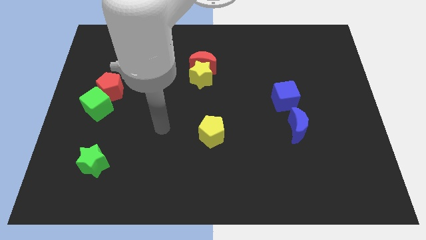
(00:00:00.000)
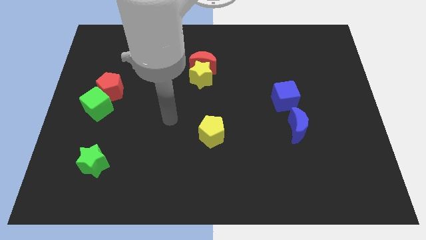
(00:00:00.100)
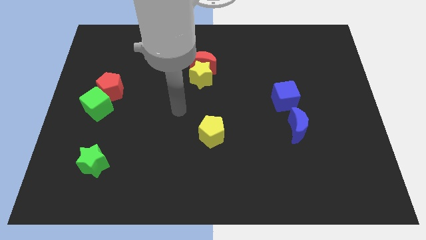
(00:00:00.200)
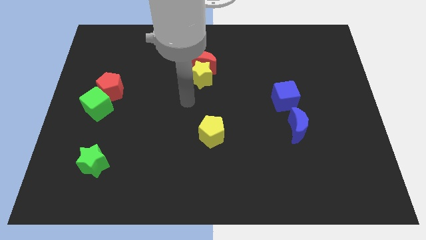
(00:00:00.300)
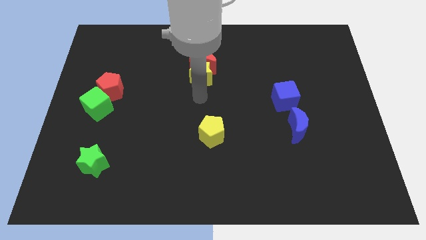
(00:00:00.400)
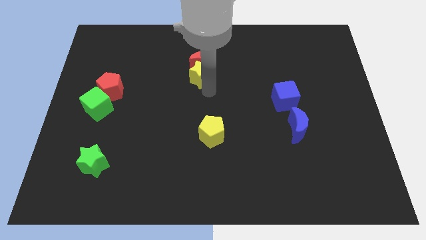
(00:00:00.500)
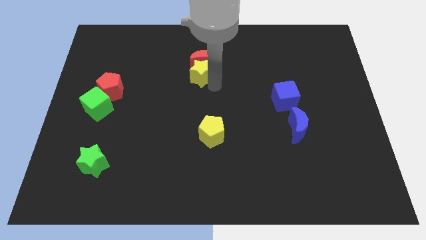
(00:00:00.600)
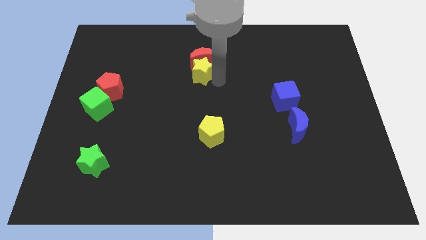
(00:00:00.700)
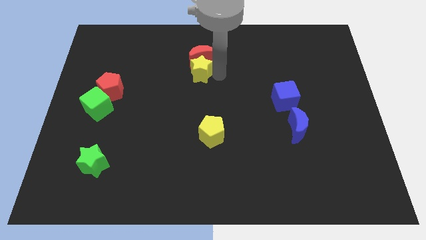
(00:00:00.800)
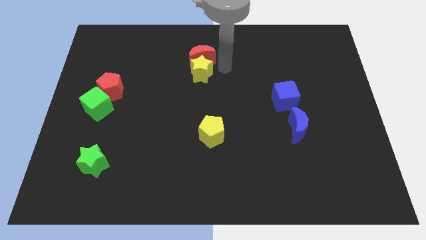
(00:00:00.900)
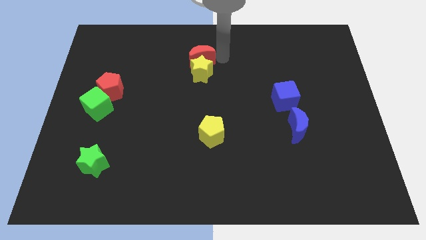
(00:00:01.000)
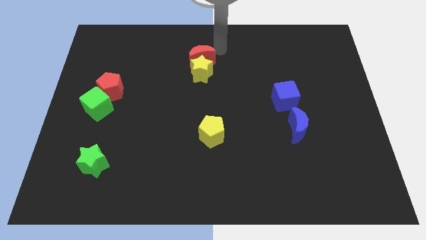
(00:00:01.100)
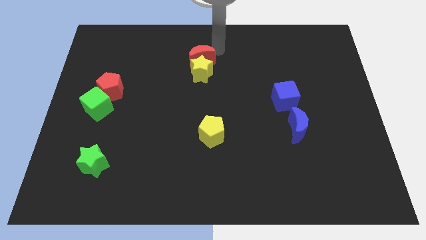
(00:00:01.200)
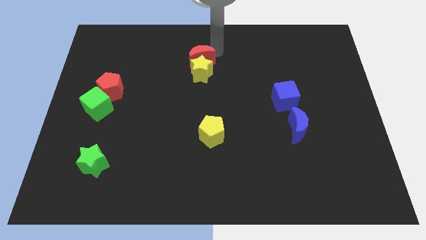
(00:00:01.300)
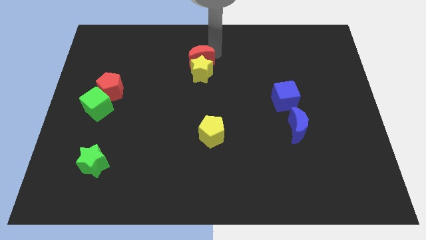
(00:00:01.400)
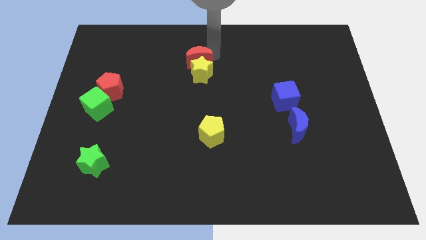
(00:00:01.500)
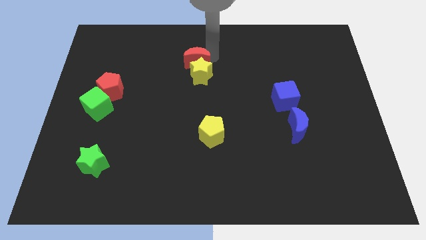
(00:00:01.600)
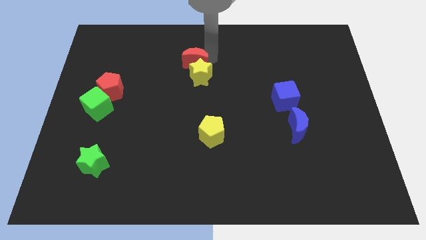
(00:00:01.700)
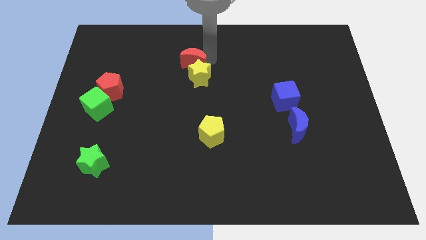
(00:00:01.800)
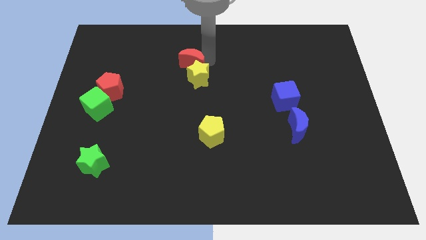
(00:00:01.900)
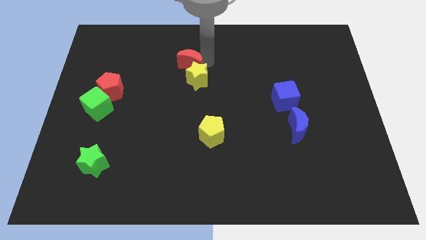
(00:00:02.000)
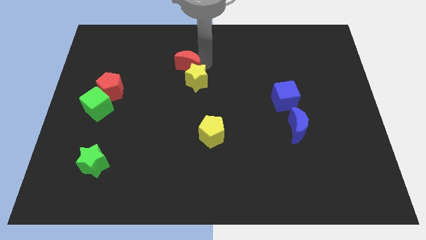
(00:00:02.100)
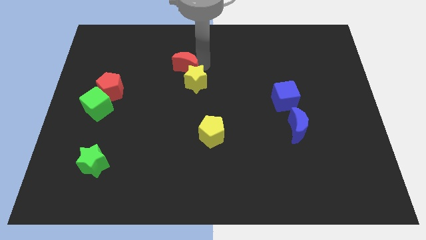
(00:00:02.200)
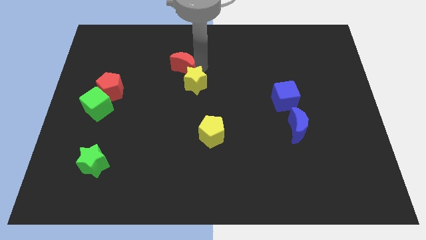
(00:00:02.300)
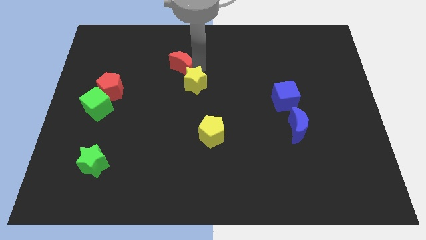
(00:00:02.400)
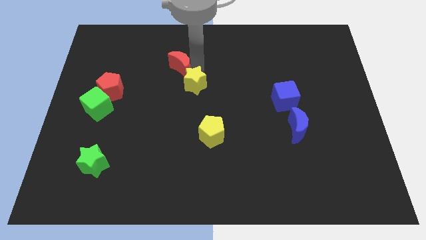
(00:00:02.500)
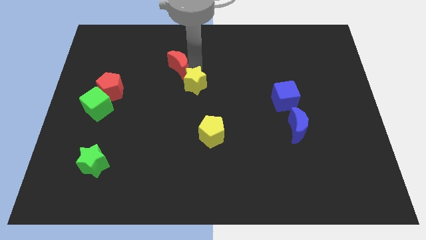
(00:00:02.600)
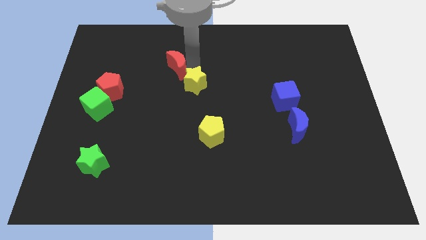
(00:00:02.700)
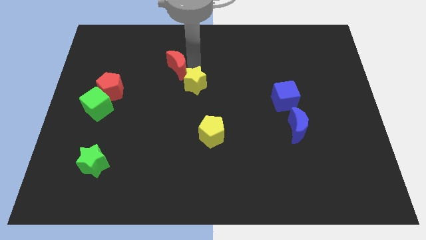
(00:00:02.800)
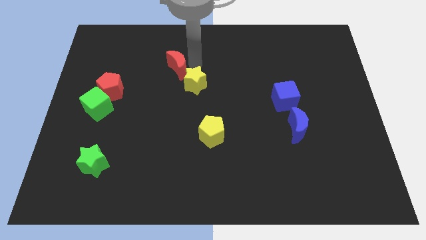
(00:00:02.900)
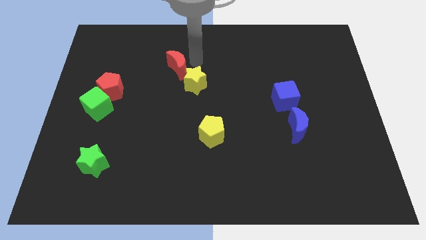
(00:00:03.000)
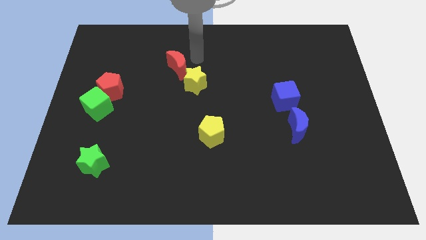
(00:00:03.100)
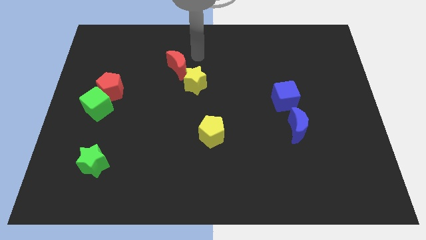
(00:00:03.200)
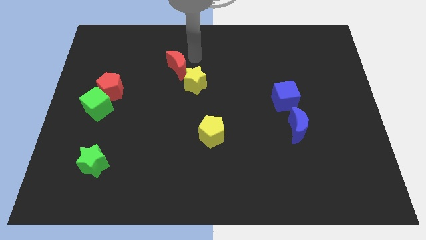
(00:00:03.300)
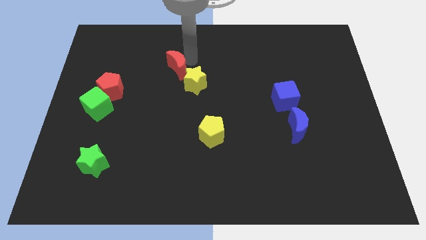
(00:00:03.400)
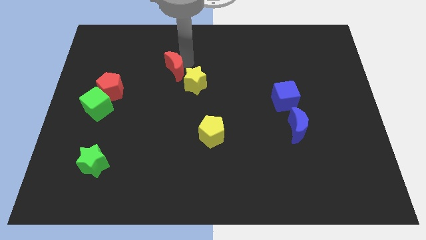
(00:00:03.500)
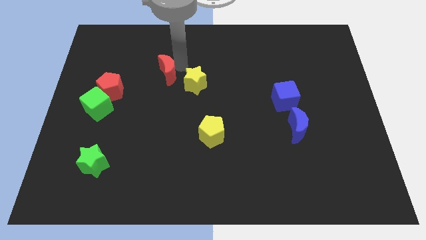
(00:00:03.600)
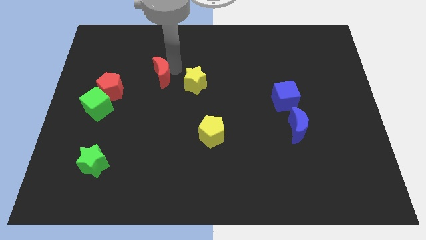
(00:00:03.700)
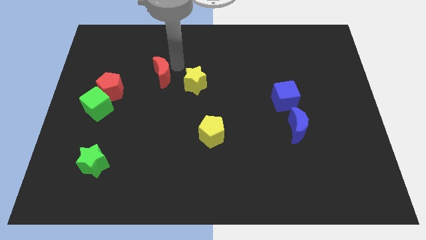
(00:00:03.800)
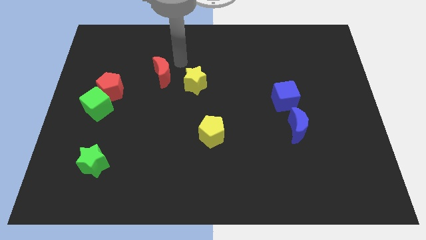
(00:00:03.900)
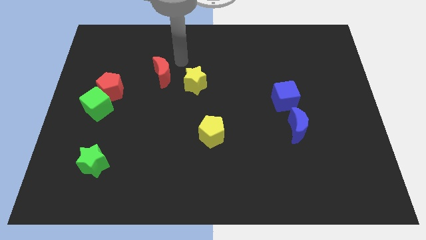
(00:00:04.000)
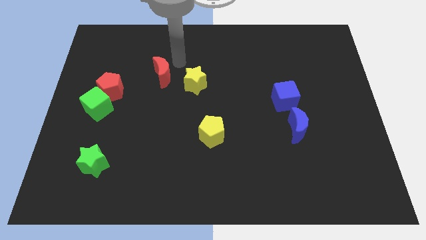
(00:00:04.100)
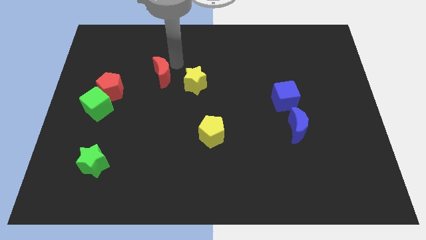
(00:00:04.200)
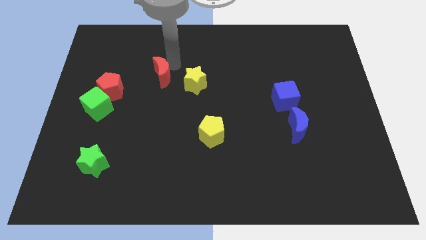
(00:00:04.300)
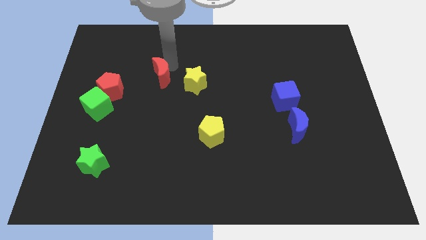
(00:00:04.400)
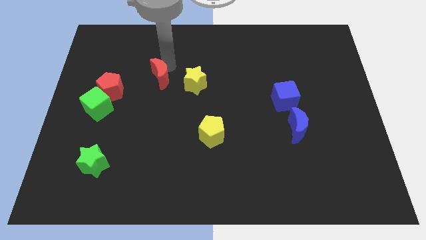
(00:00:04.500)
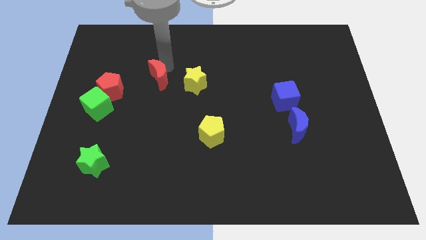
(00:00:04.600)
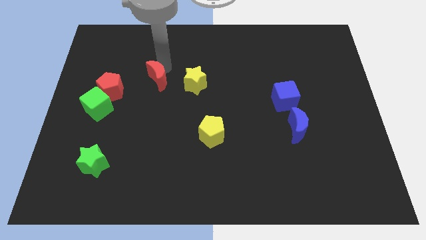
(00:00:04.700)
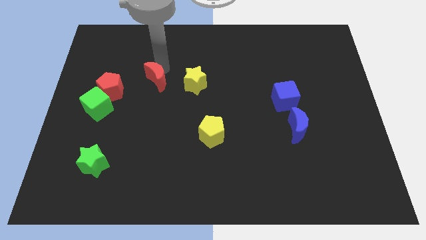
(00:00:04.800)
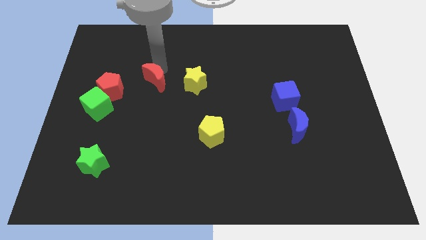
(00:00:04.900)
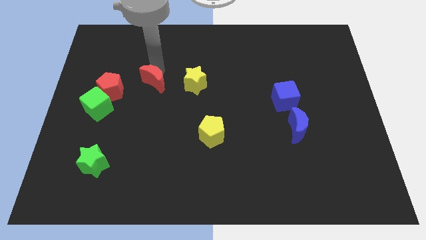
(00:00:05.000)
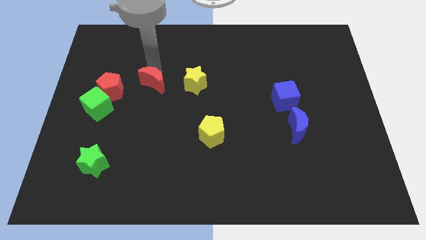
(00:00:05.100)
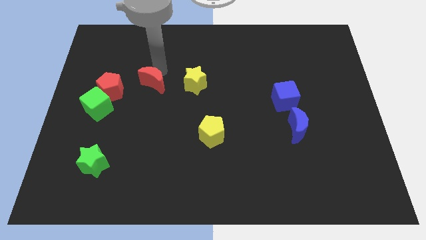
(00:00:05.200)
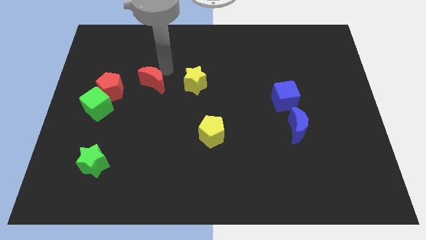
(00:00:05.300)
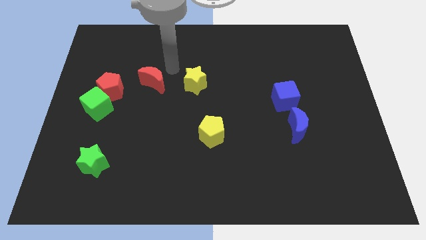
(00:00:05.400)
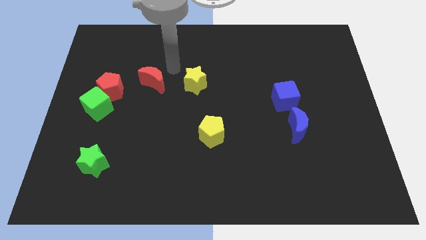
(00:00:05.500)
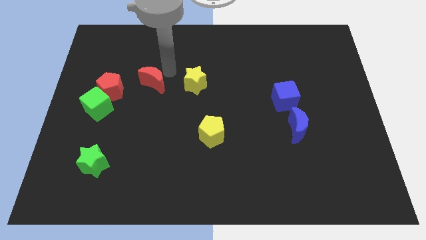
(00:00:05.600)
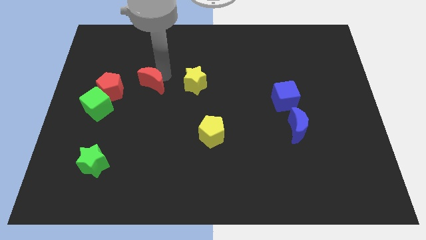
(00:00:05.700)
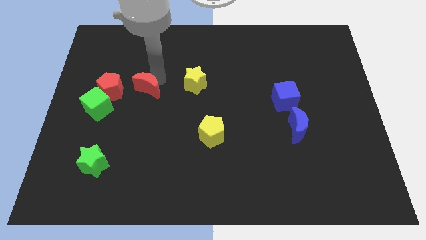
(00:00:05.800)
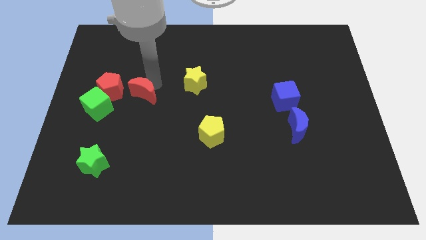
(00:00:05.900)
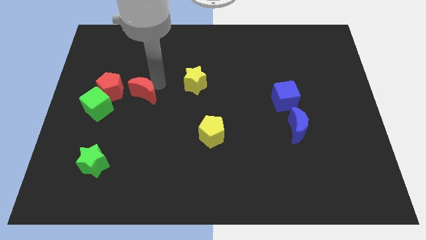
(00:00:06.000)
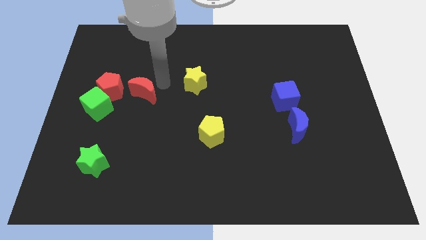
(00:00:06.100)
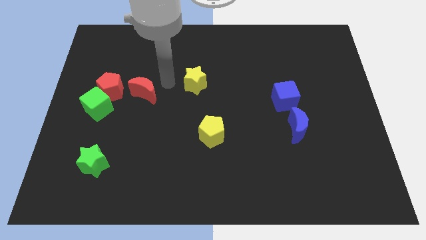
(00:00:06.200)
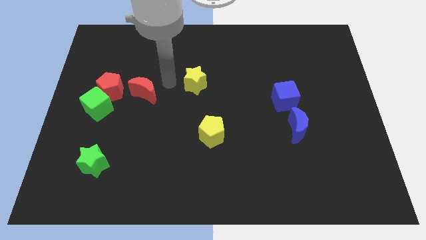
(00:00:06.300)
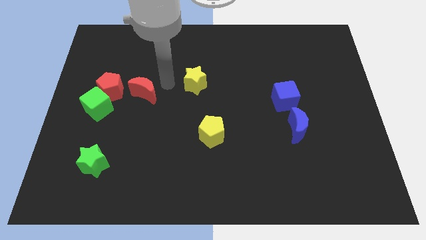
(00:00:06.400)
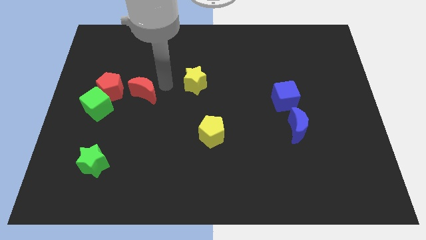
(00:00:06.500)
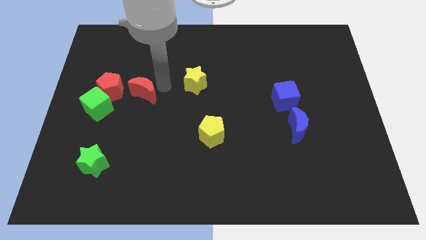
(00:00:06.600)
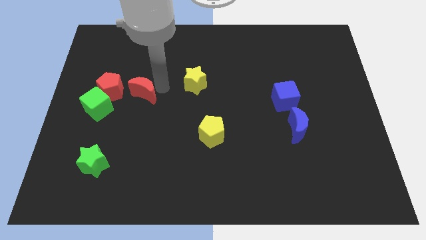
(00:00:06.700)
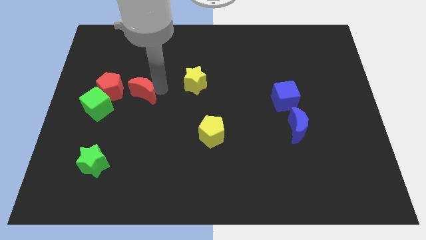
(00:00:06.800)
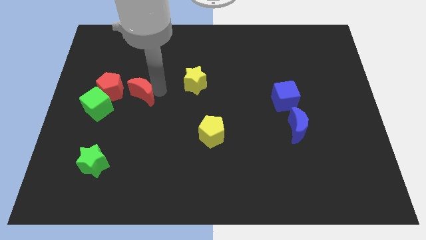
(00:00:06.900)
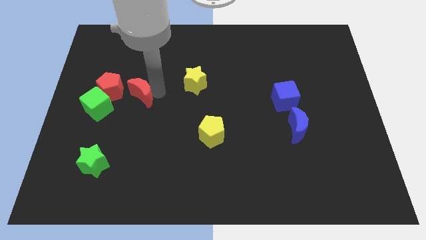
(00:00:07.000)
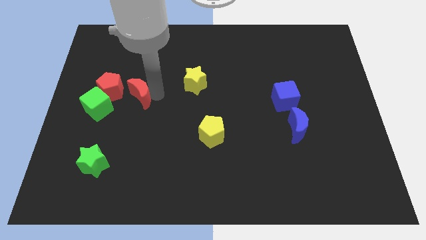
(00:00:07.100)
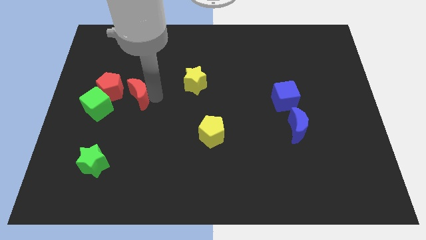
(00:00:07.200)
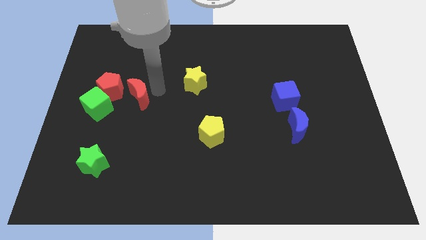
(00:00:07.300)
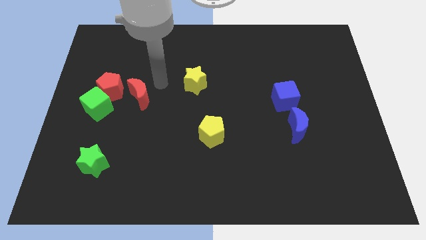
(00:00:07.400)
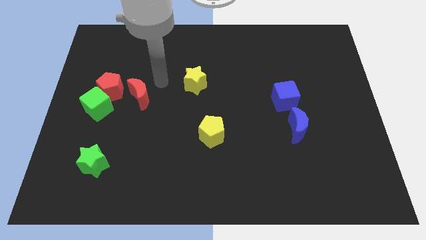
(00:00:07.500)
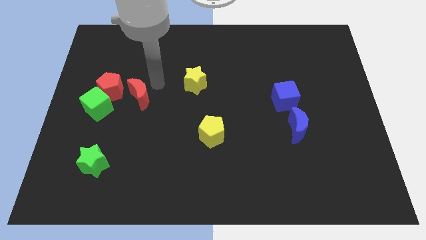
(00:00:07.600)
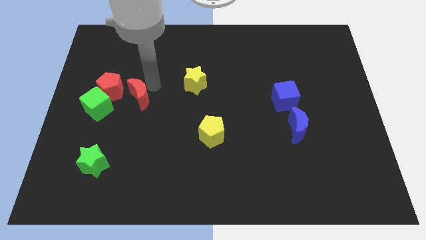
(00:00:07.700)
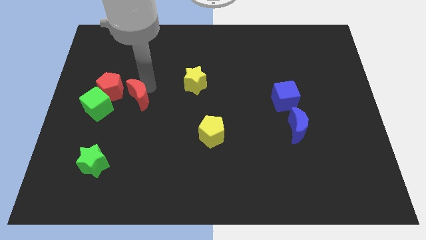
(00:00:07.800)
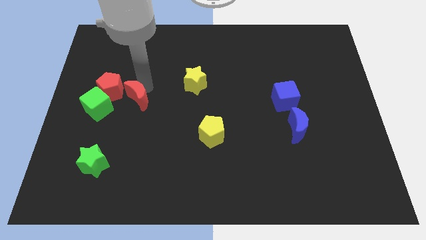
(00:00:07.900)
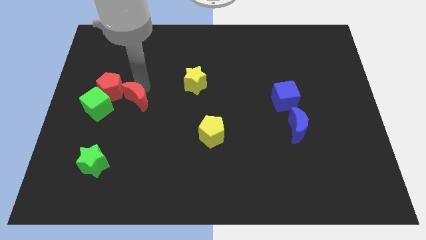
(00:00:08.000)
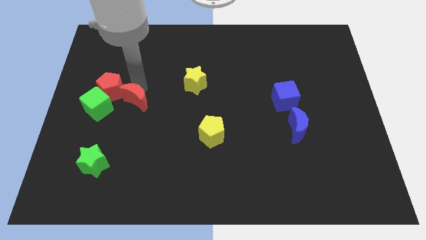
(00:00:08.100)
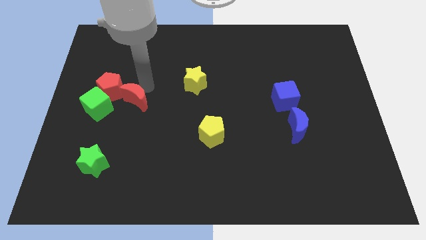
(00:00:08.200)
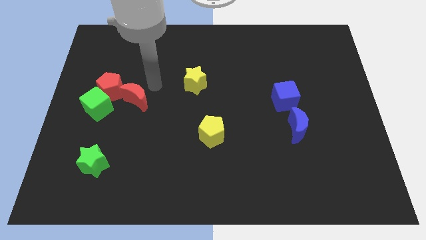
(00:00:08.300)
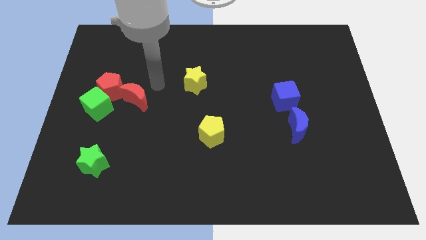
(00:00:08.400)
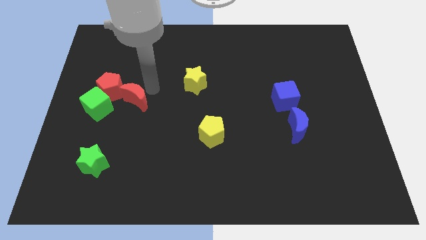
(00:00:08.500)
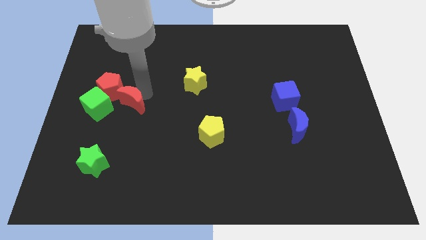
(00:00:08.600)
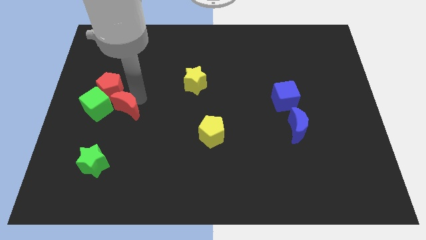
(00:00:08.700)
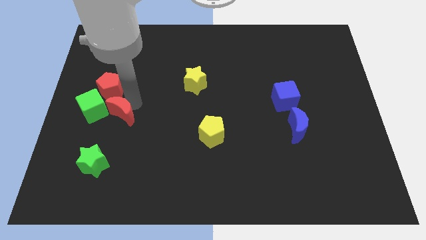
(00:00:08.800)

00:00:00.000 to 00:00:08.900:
push the red moon to the top side of the green star
